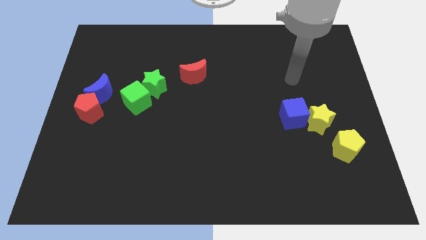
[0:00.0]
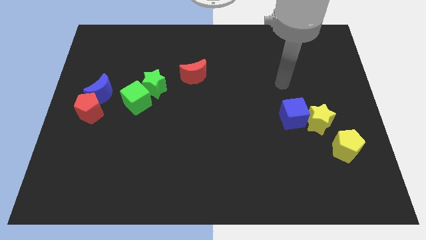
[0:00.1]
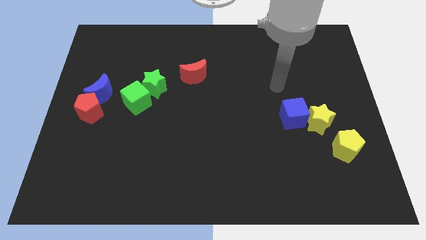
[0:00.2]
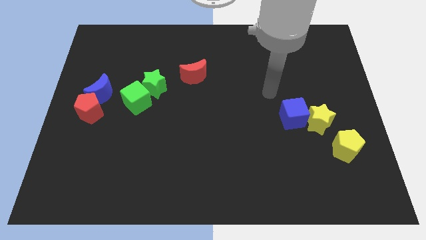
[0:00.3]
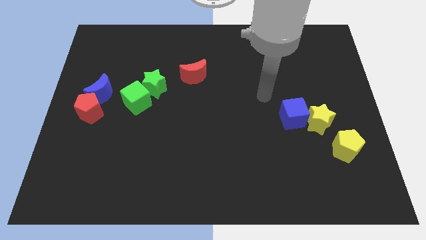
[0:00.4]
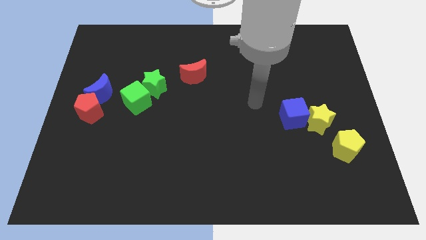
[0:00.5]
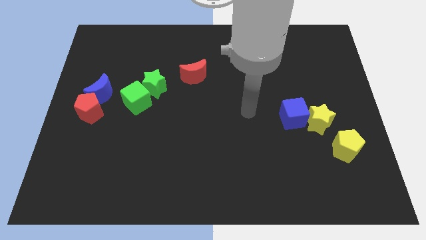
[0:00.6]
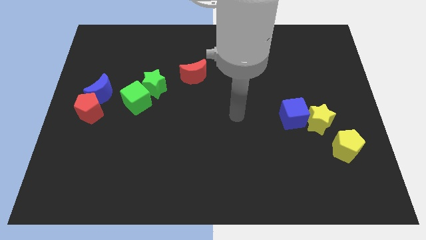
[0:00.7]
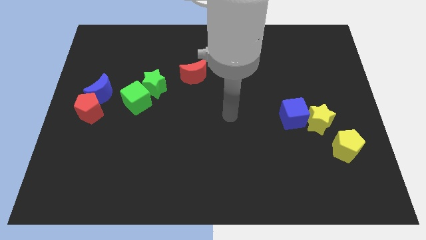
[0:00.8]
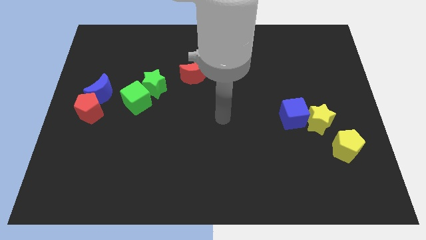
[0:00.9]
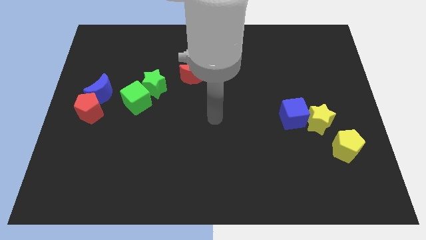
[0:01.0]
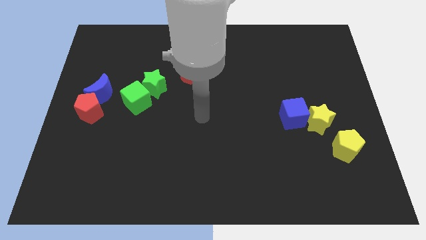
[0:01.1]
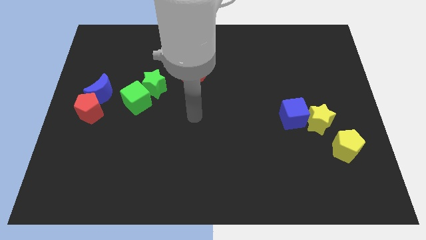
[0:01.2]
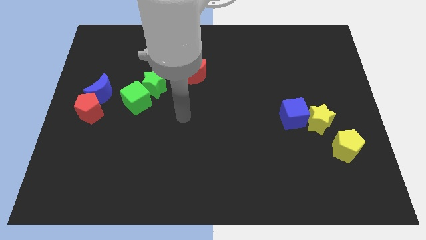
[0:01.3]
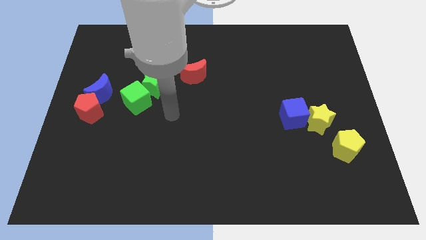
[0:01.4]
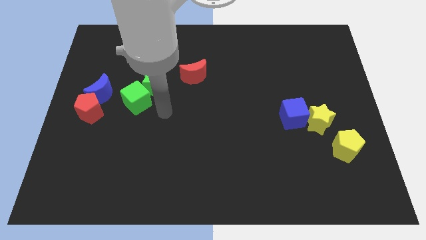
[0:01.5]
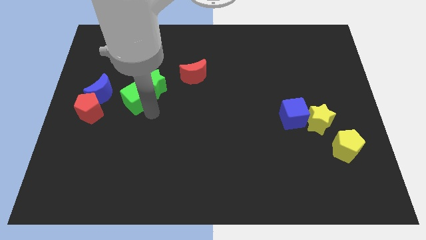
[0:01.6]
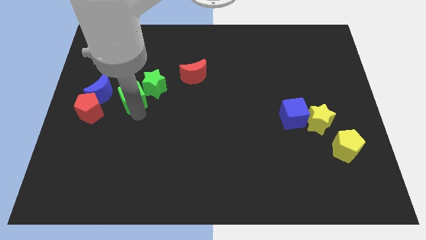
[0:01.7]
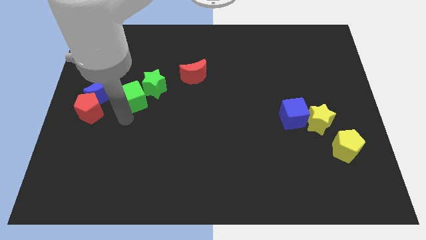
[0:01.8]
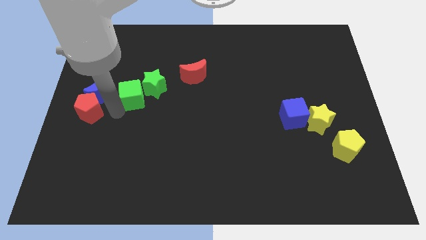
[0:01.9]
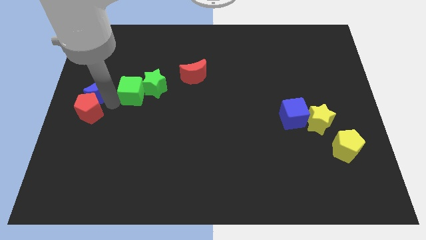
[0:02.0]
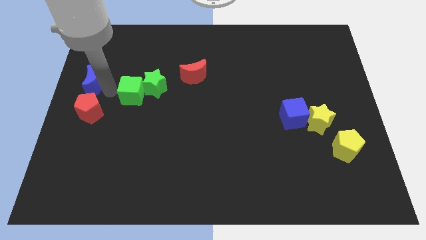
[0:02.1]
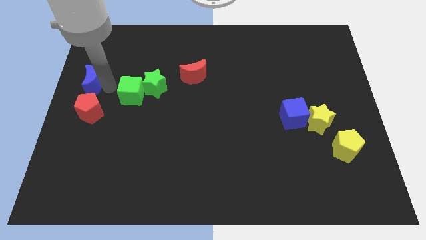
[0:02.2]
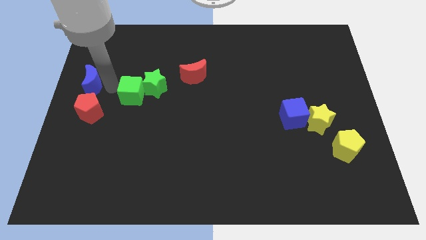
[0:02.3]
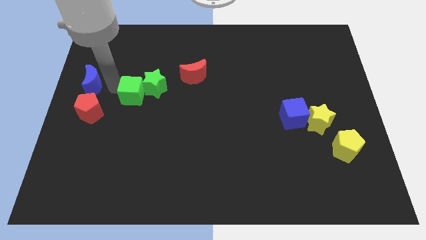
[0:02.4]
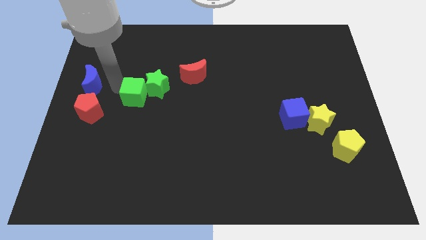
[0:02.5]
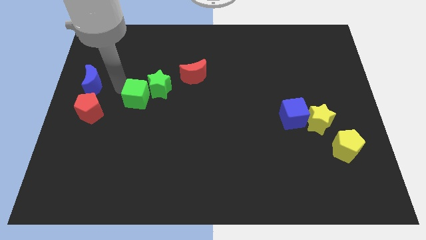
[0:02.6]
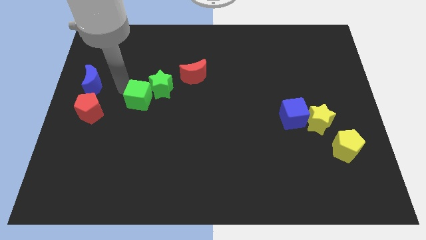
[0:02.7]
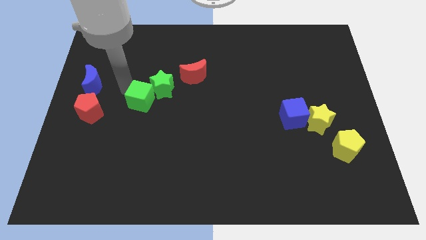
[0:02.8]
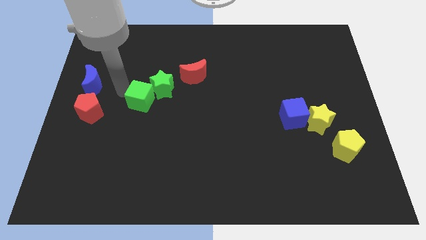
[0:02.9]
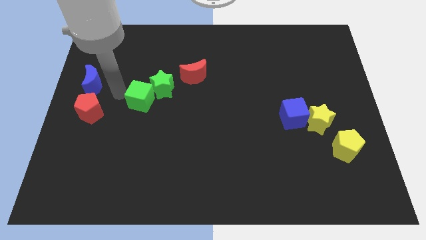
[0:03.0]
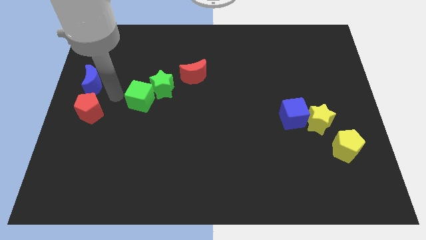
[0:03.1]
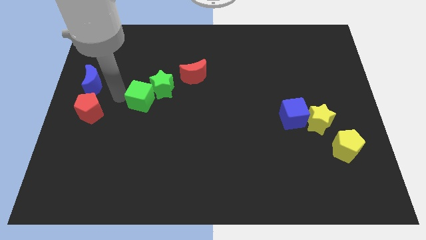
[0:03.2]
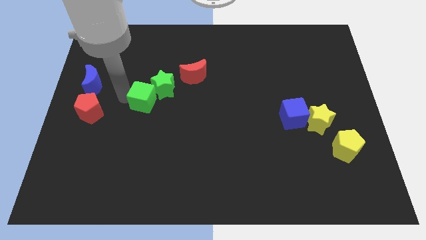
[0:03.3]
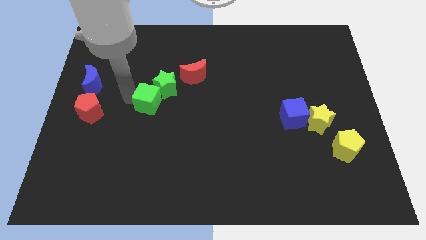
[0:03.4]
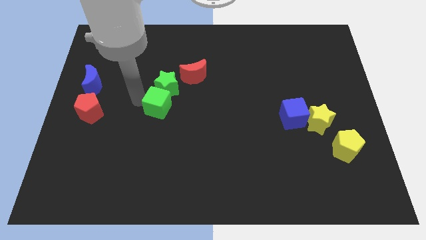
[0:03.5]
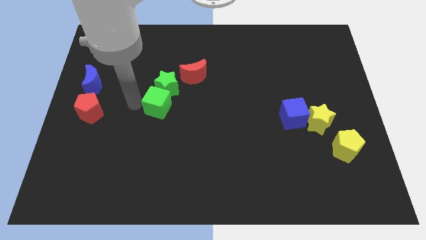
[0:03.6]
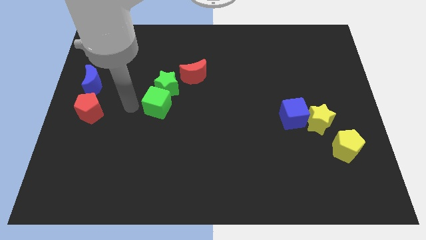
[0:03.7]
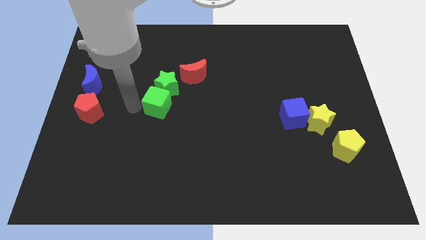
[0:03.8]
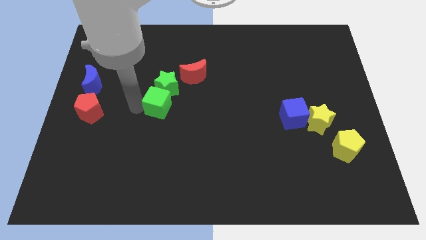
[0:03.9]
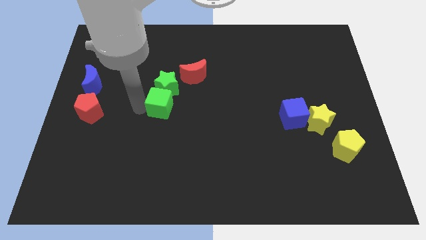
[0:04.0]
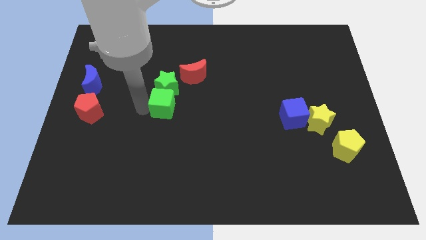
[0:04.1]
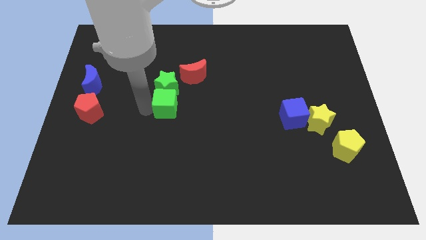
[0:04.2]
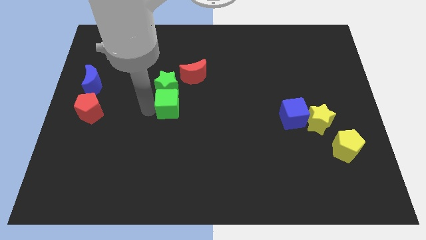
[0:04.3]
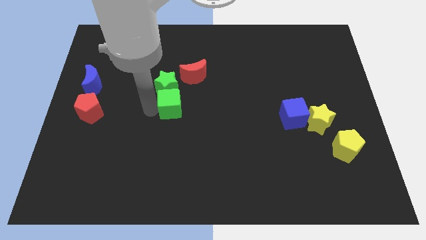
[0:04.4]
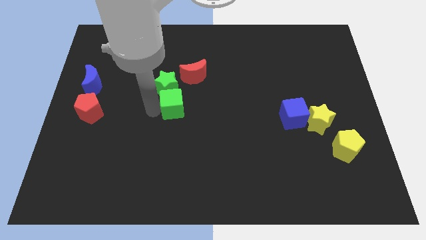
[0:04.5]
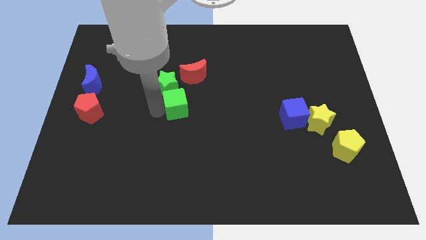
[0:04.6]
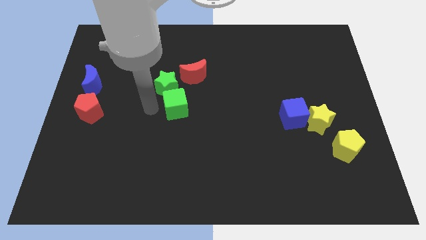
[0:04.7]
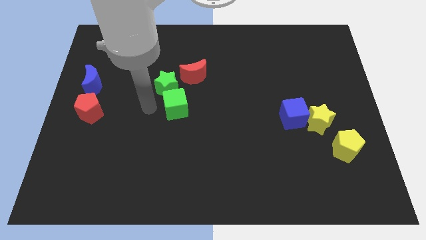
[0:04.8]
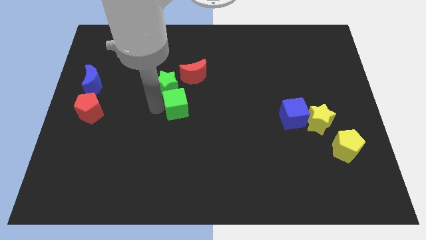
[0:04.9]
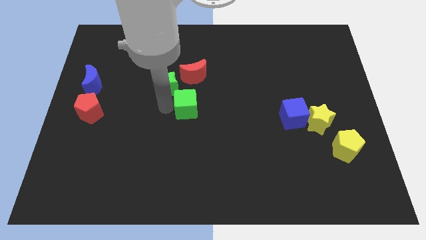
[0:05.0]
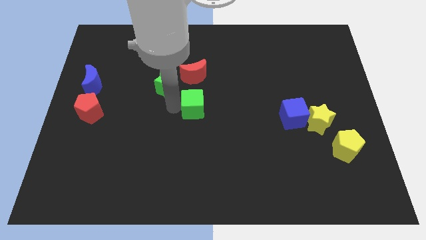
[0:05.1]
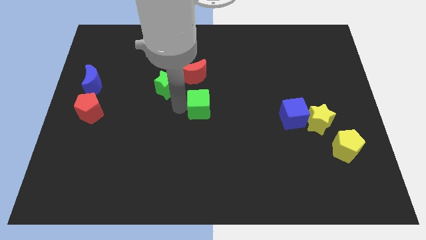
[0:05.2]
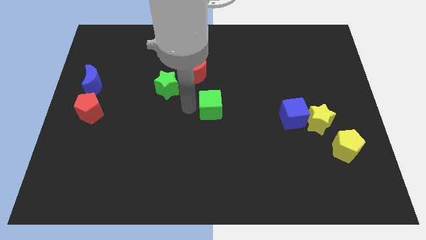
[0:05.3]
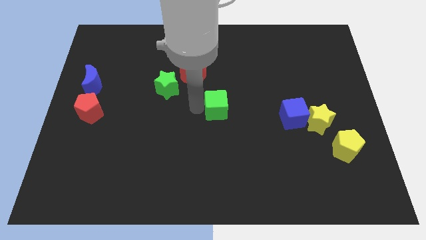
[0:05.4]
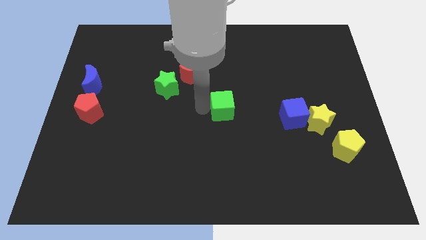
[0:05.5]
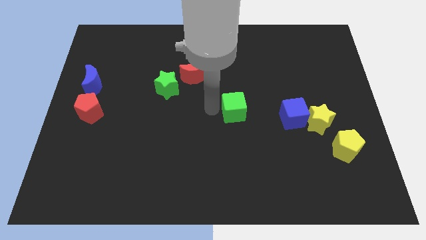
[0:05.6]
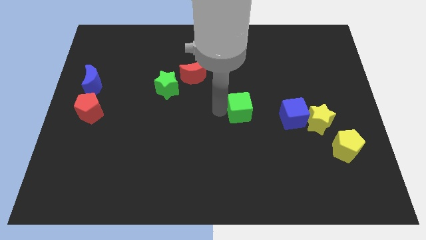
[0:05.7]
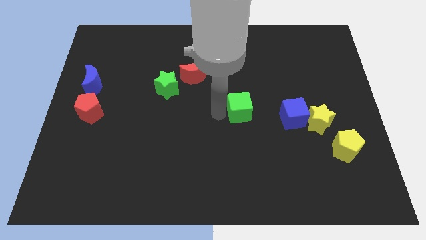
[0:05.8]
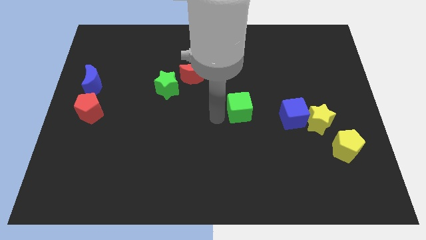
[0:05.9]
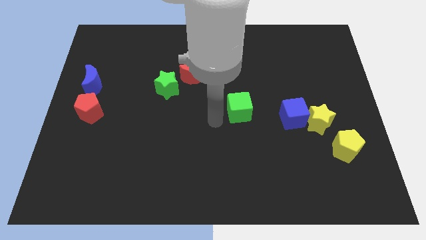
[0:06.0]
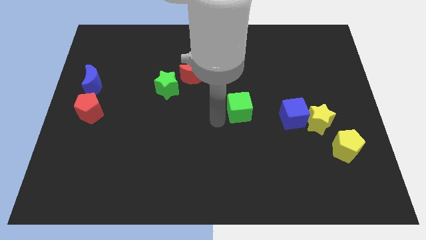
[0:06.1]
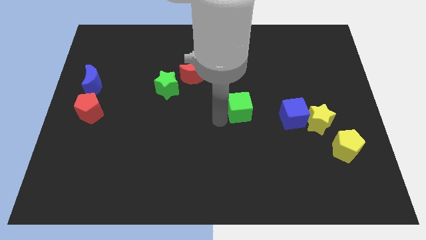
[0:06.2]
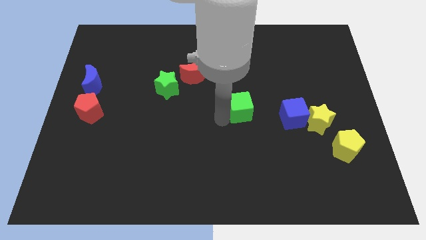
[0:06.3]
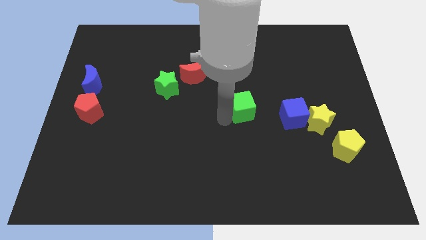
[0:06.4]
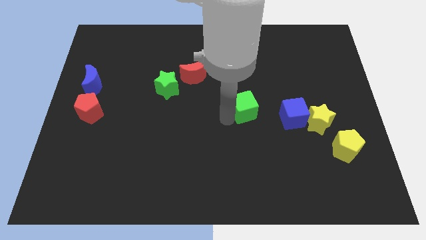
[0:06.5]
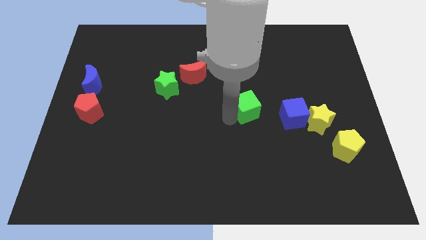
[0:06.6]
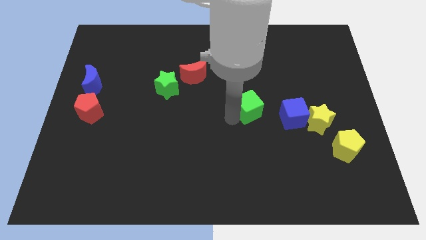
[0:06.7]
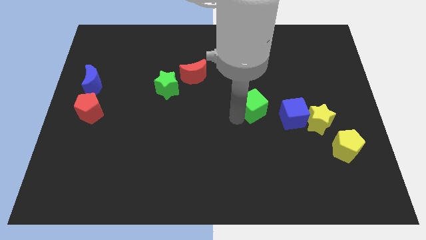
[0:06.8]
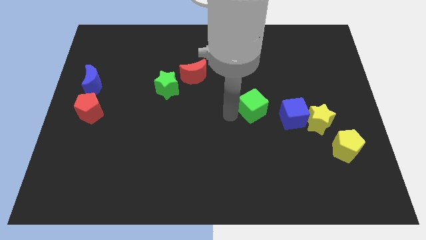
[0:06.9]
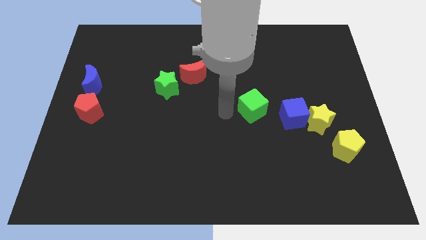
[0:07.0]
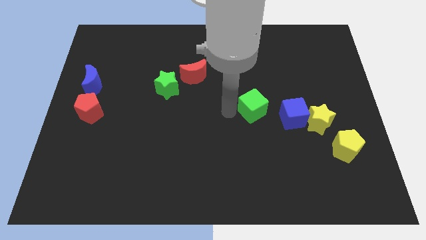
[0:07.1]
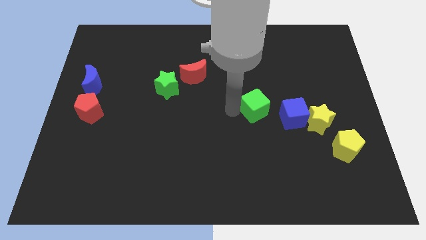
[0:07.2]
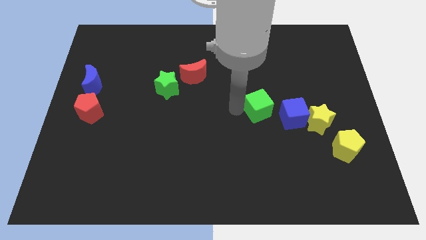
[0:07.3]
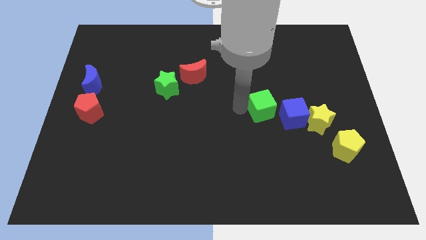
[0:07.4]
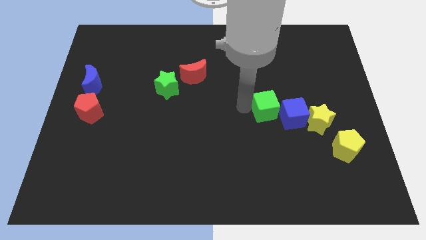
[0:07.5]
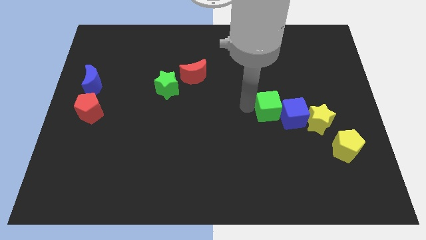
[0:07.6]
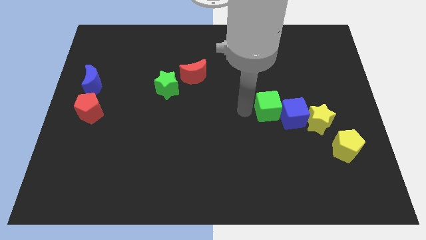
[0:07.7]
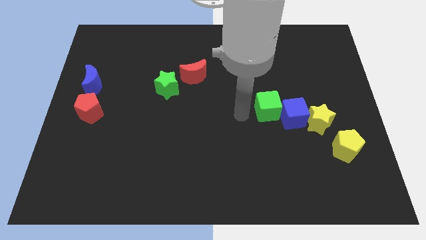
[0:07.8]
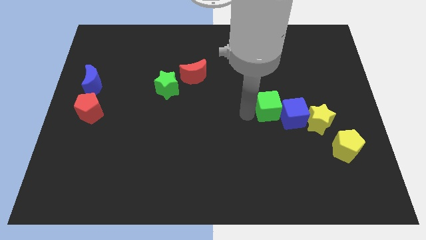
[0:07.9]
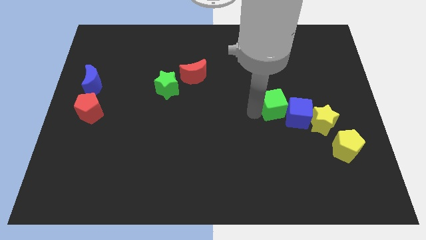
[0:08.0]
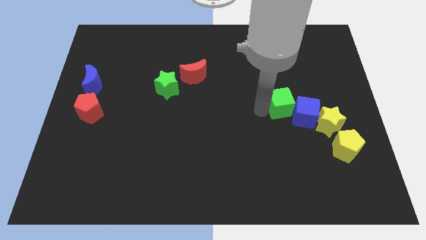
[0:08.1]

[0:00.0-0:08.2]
slide the green cube to the top left of the yellow star
